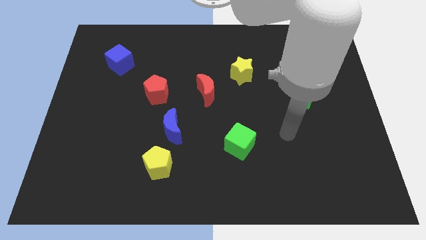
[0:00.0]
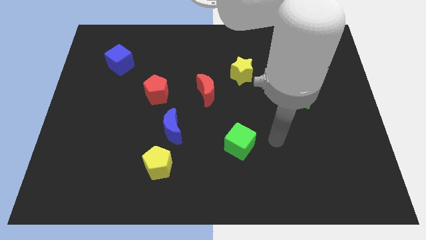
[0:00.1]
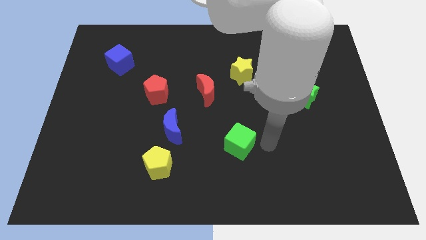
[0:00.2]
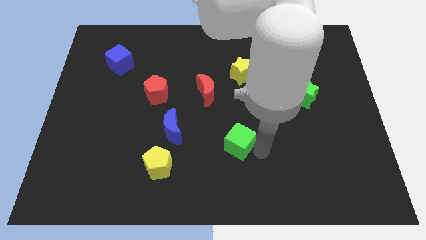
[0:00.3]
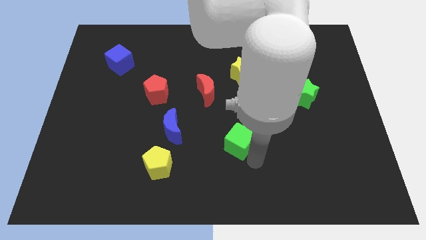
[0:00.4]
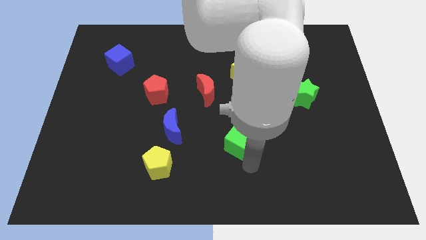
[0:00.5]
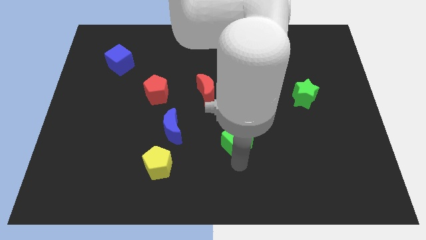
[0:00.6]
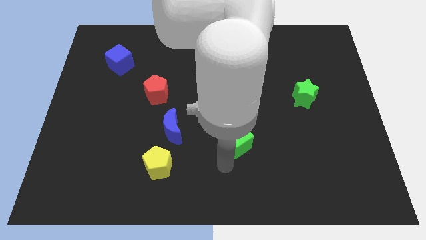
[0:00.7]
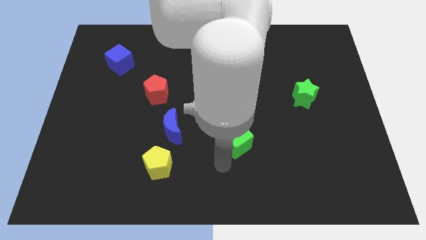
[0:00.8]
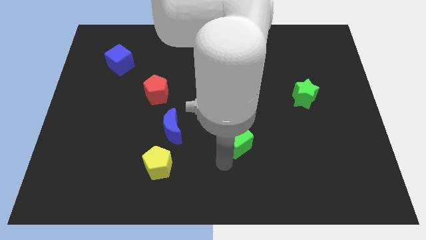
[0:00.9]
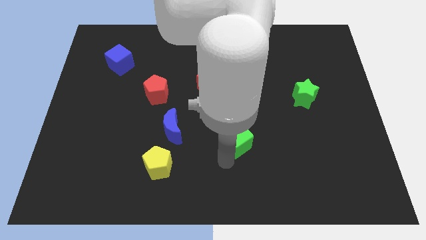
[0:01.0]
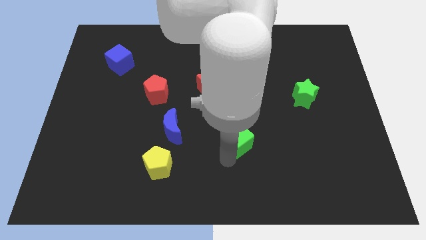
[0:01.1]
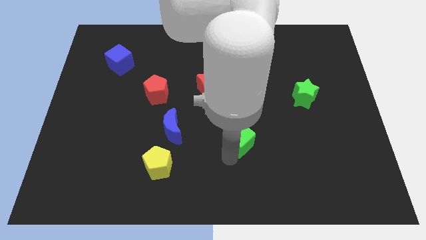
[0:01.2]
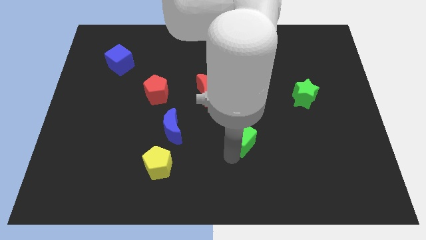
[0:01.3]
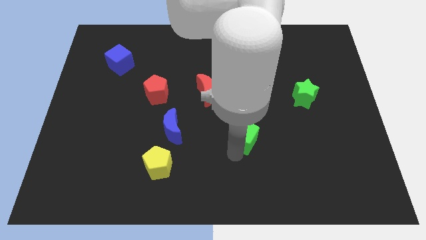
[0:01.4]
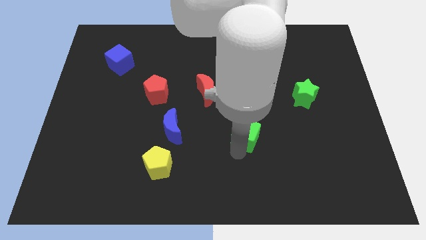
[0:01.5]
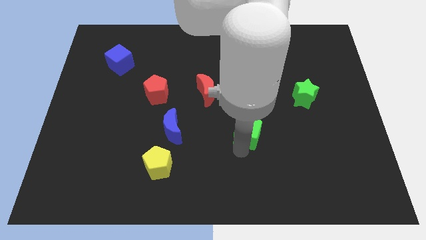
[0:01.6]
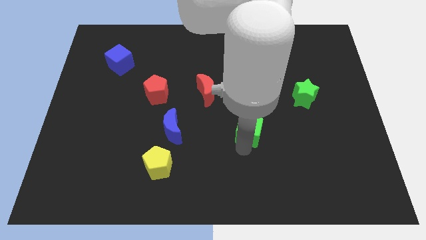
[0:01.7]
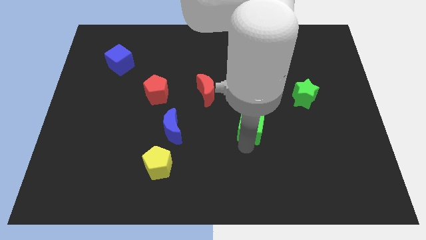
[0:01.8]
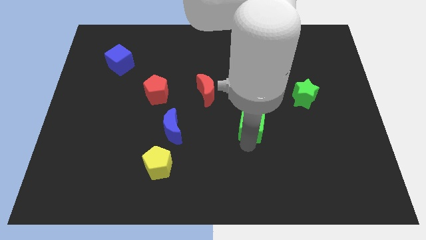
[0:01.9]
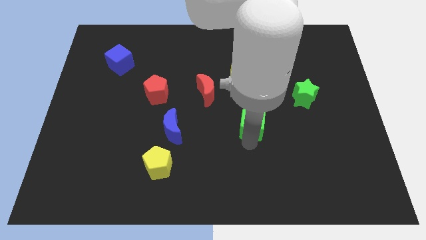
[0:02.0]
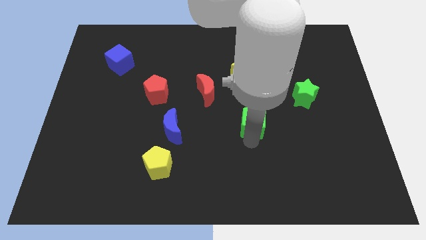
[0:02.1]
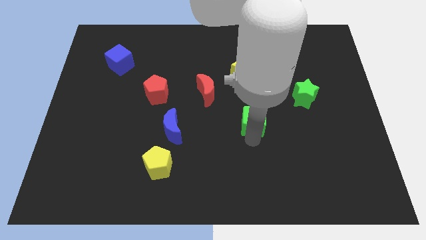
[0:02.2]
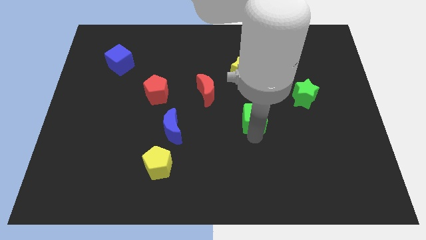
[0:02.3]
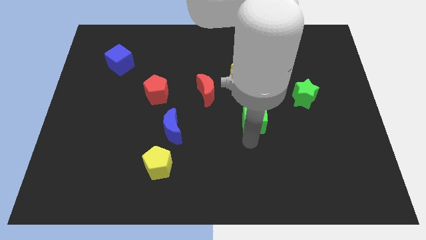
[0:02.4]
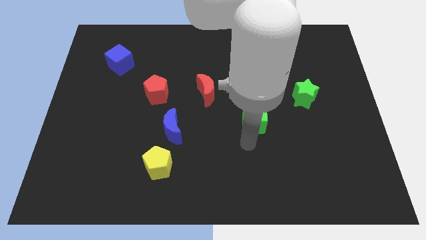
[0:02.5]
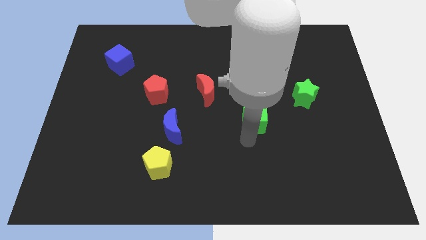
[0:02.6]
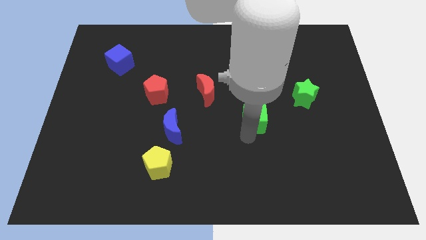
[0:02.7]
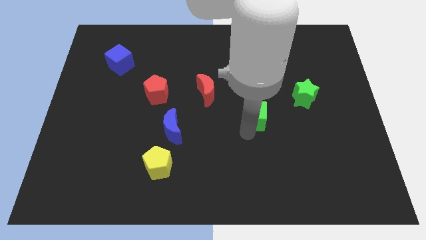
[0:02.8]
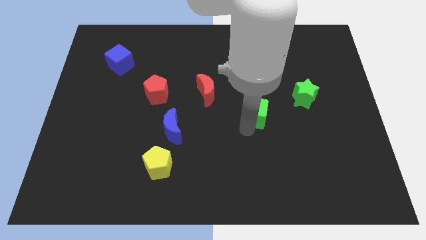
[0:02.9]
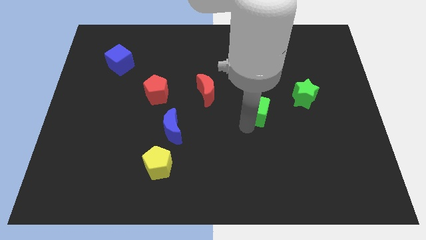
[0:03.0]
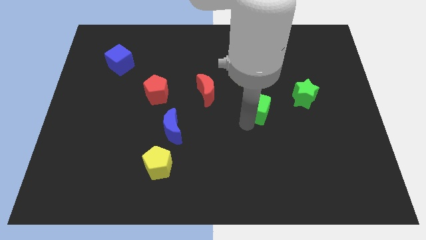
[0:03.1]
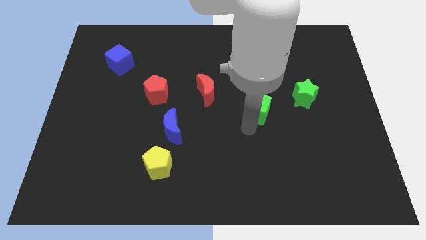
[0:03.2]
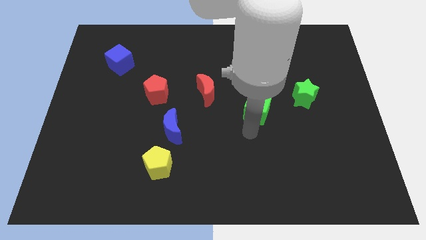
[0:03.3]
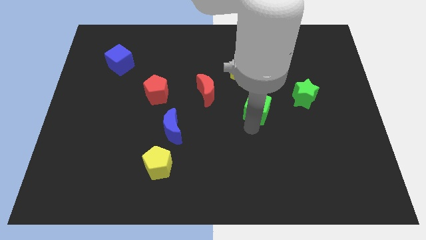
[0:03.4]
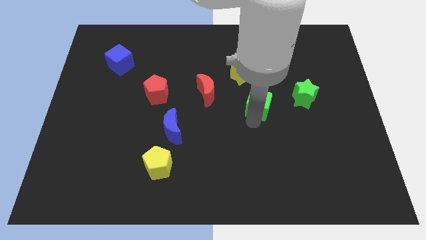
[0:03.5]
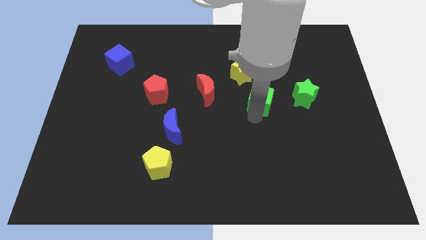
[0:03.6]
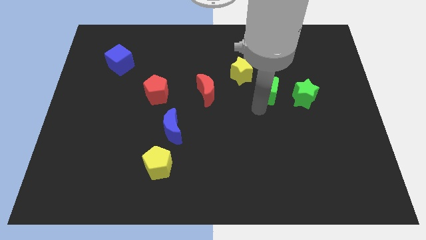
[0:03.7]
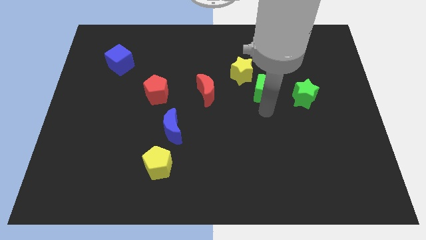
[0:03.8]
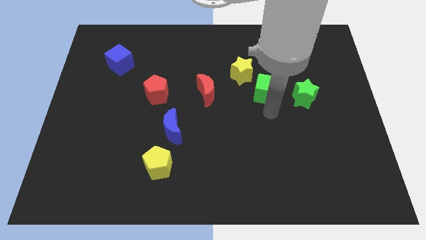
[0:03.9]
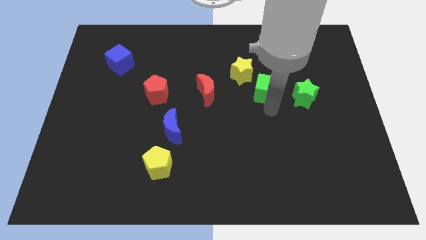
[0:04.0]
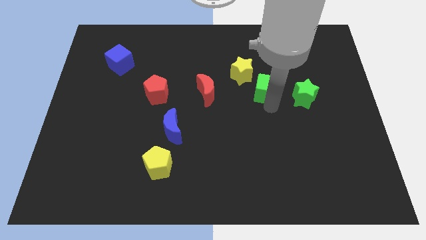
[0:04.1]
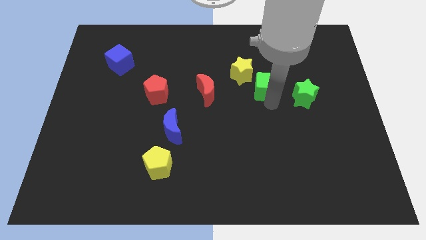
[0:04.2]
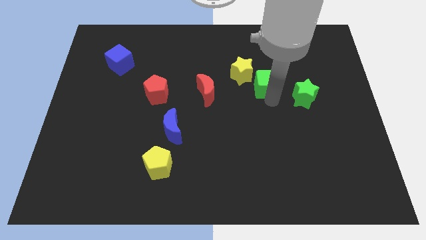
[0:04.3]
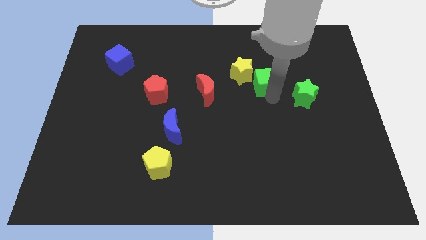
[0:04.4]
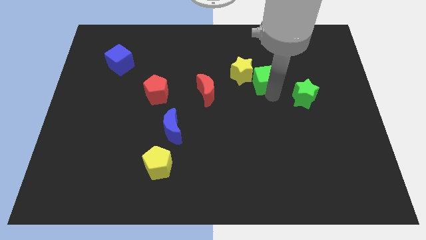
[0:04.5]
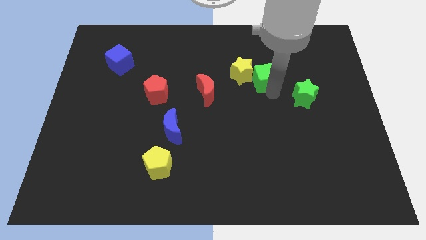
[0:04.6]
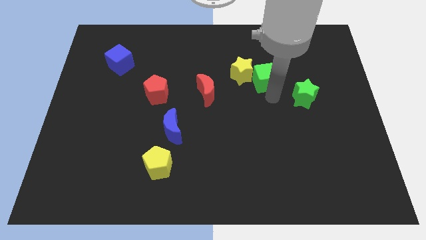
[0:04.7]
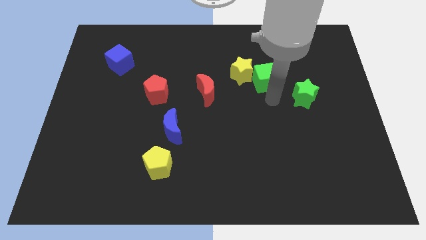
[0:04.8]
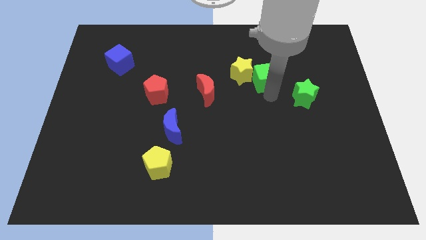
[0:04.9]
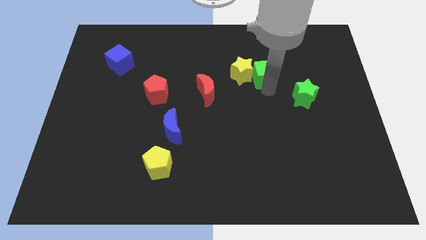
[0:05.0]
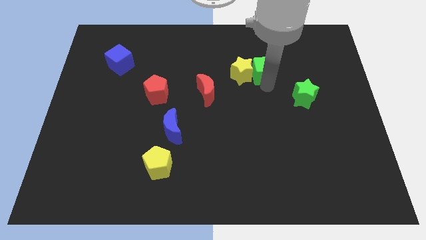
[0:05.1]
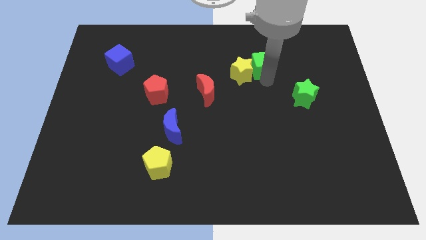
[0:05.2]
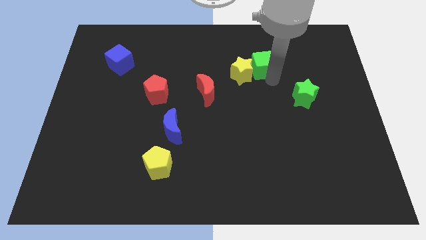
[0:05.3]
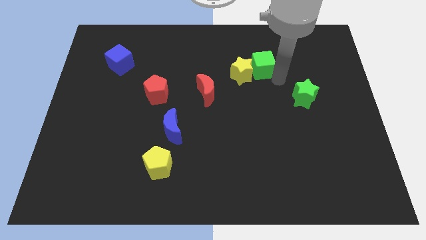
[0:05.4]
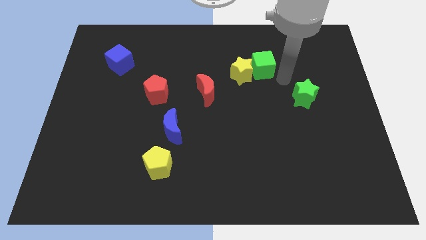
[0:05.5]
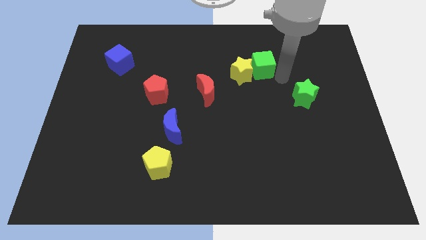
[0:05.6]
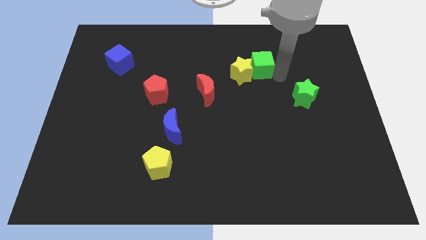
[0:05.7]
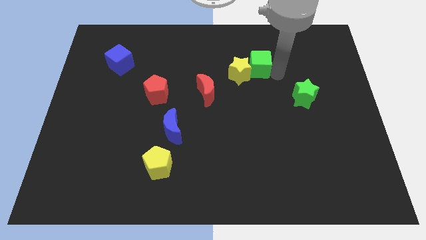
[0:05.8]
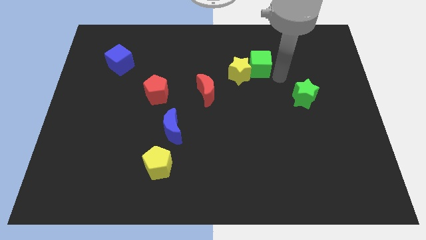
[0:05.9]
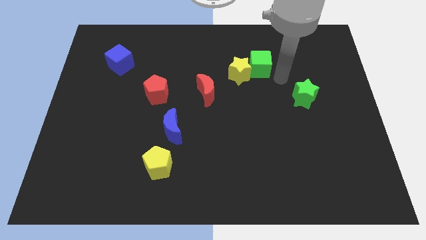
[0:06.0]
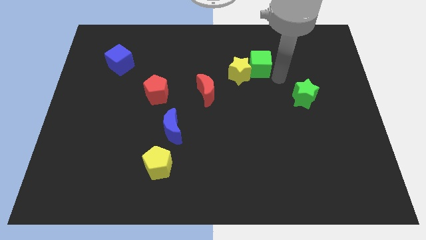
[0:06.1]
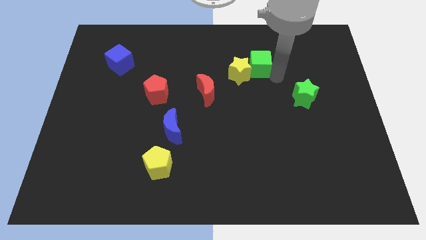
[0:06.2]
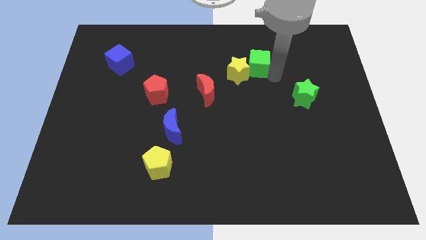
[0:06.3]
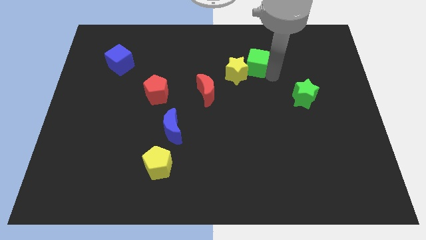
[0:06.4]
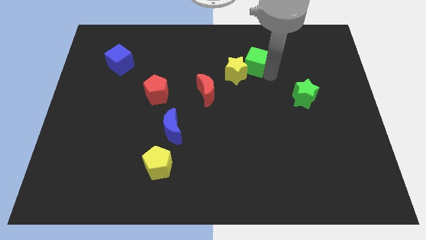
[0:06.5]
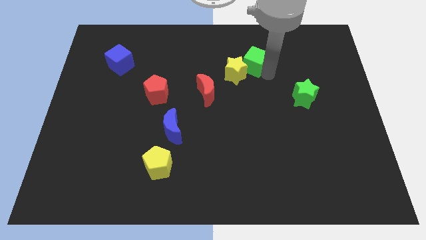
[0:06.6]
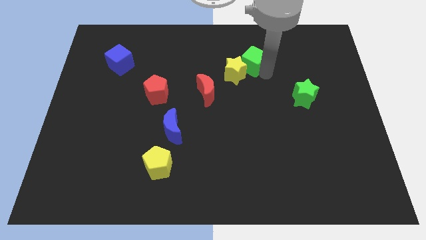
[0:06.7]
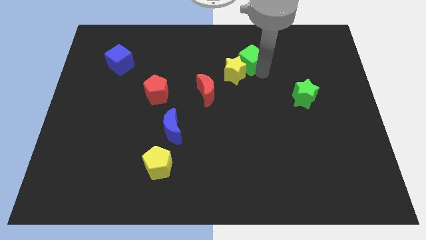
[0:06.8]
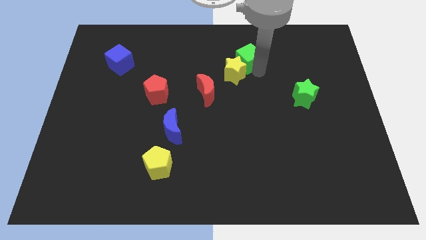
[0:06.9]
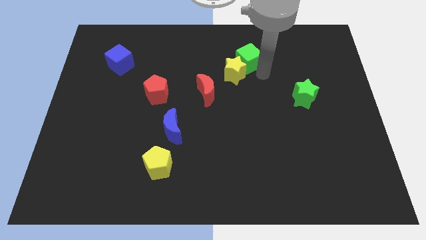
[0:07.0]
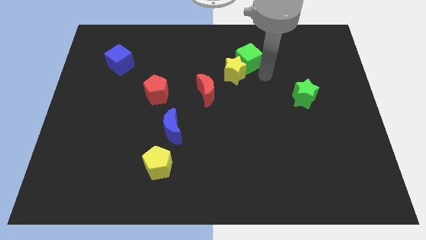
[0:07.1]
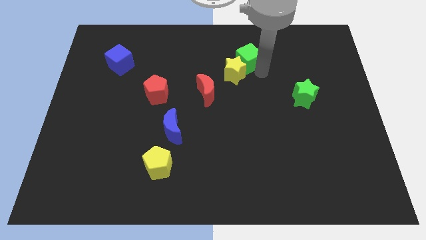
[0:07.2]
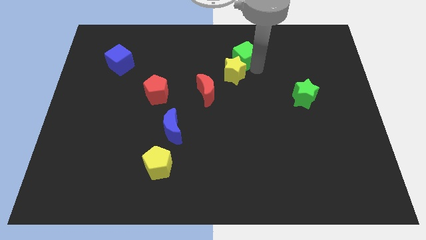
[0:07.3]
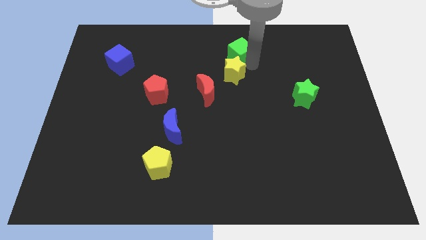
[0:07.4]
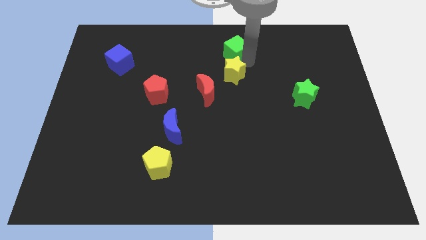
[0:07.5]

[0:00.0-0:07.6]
push the green cube to the towards your base
